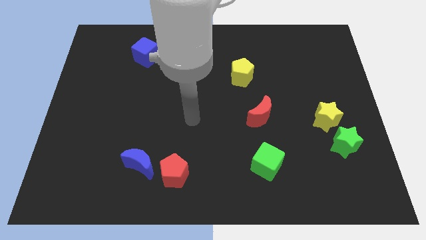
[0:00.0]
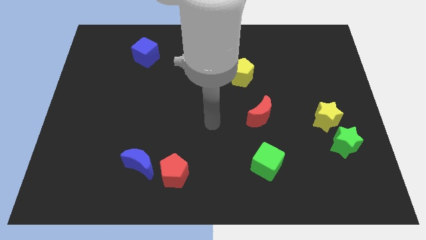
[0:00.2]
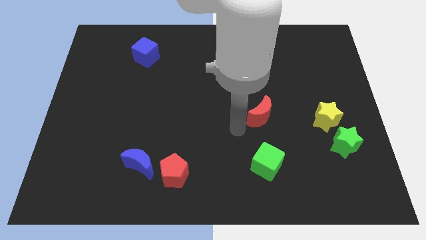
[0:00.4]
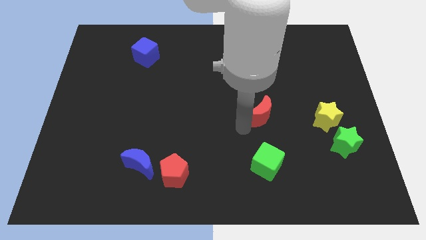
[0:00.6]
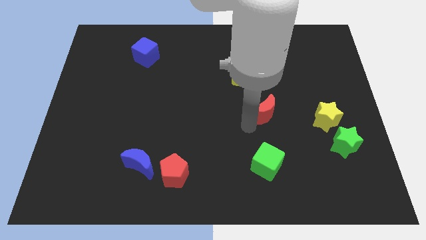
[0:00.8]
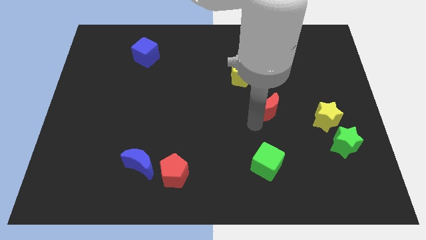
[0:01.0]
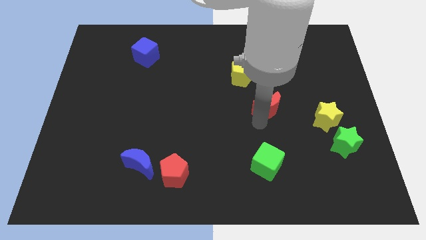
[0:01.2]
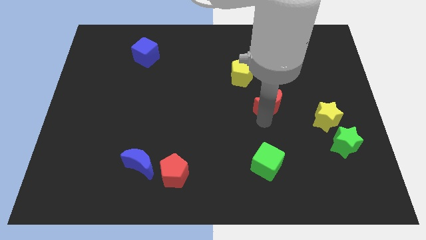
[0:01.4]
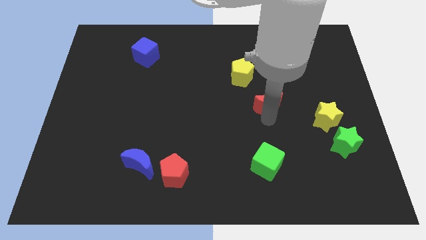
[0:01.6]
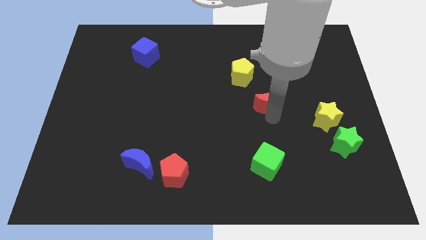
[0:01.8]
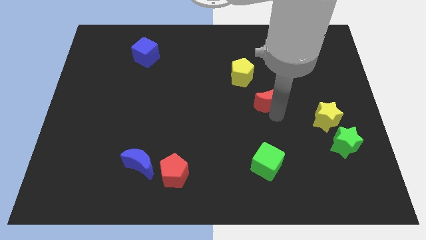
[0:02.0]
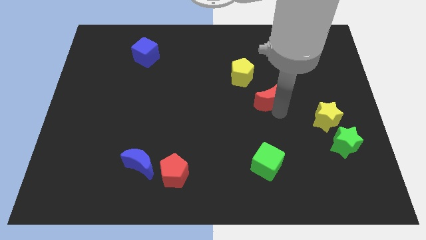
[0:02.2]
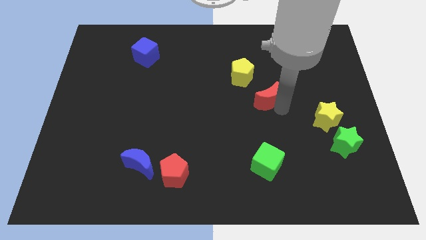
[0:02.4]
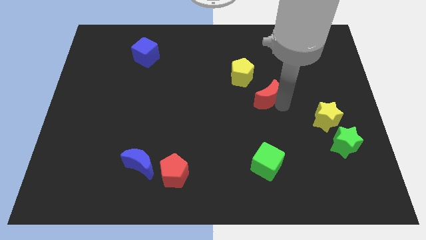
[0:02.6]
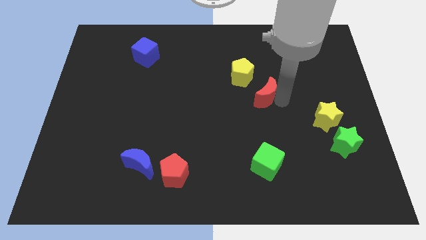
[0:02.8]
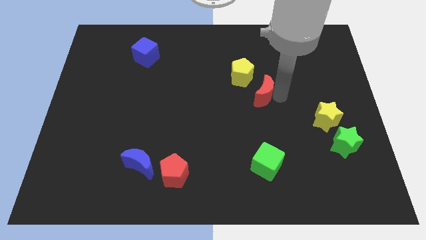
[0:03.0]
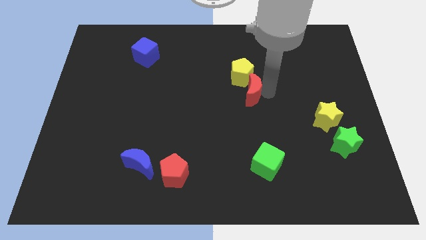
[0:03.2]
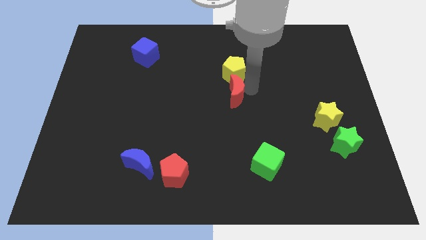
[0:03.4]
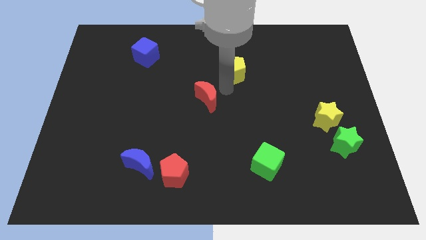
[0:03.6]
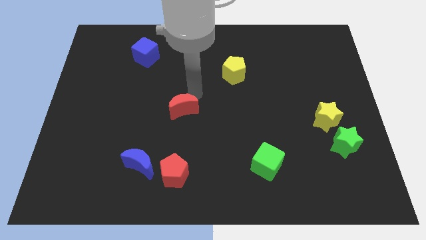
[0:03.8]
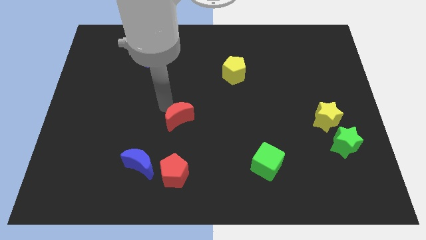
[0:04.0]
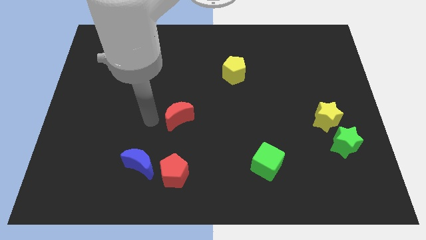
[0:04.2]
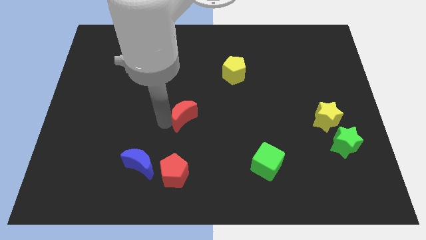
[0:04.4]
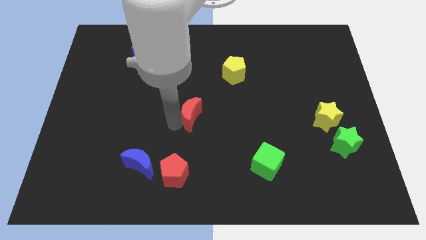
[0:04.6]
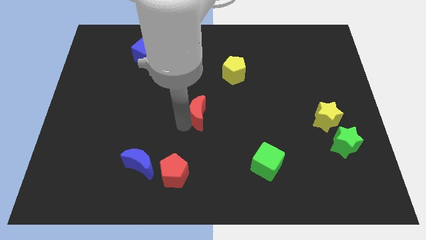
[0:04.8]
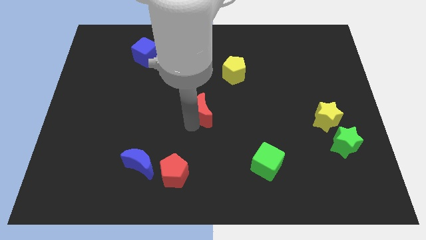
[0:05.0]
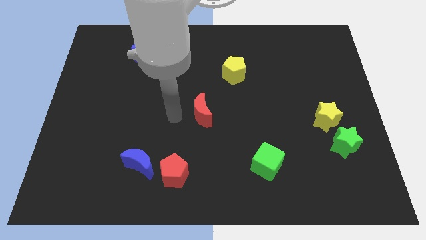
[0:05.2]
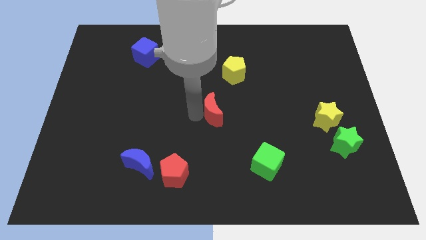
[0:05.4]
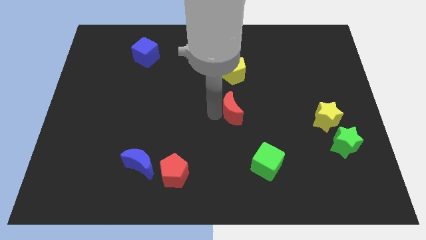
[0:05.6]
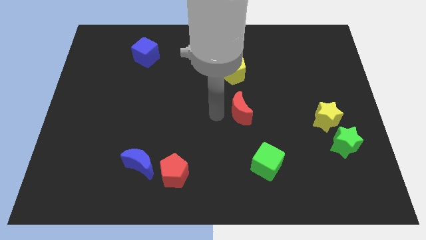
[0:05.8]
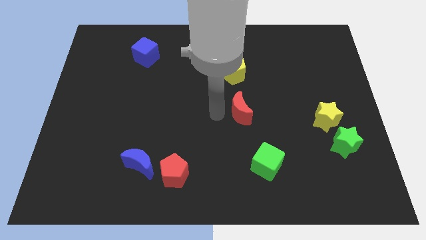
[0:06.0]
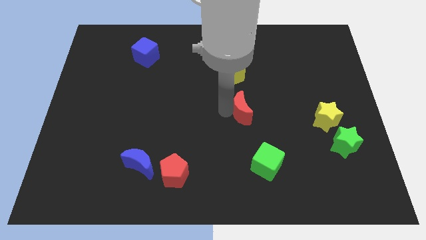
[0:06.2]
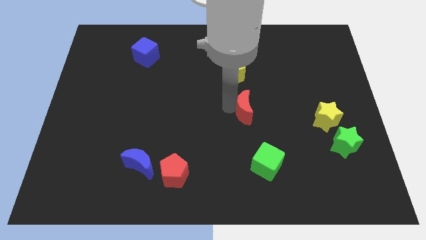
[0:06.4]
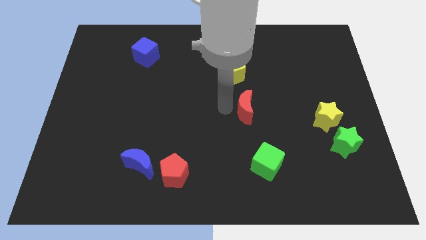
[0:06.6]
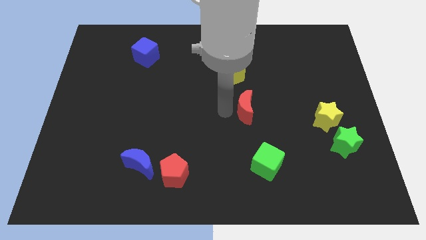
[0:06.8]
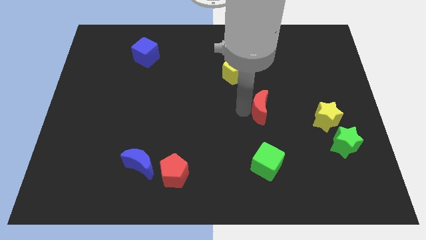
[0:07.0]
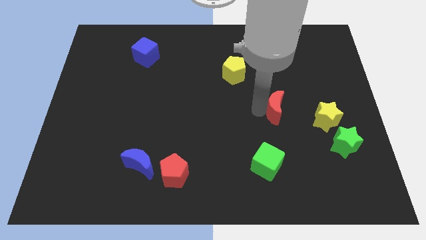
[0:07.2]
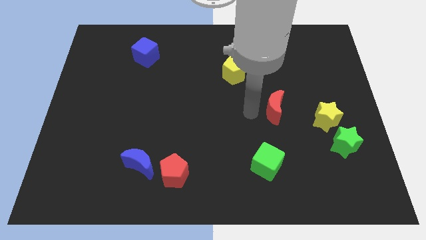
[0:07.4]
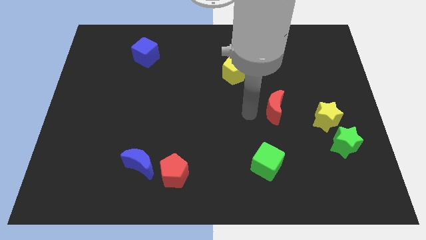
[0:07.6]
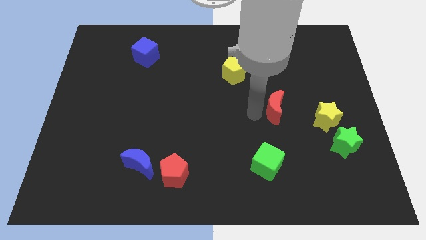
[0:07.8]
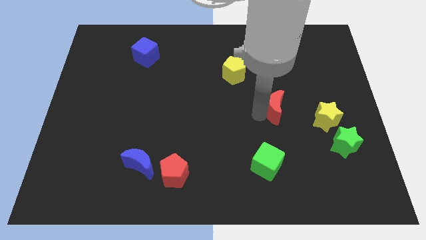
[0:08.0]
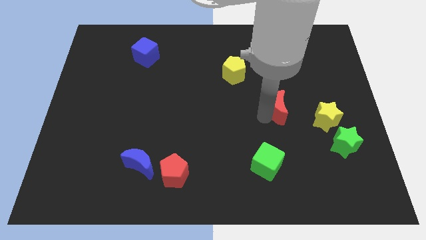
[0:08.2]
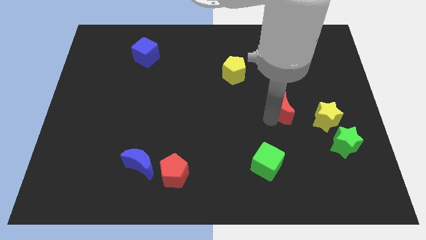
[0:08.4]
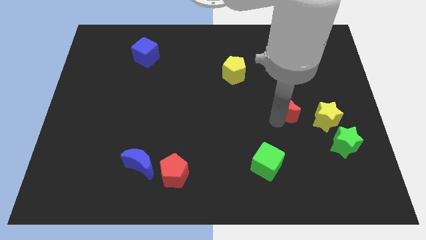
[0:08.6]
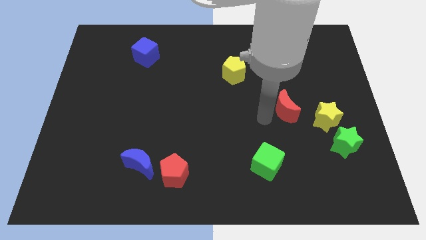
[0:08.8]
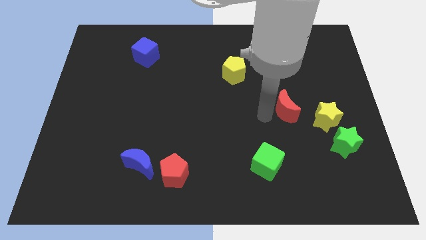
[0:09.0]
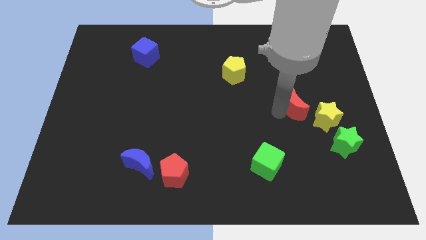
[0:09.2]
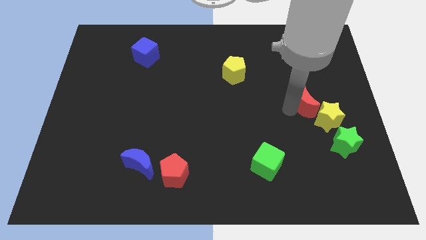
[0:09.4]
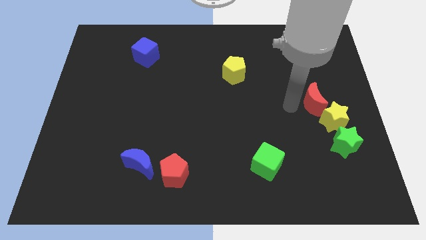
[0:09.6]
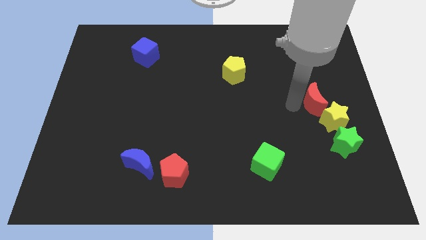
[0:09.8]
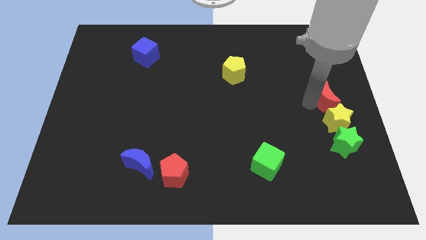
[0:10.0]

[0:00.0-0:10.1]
push the red moon to the right side

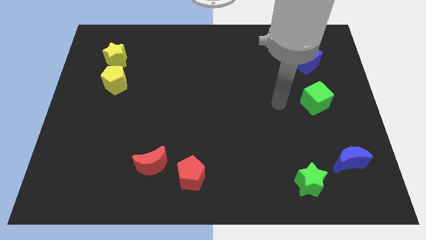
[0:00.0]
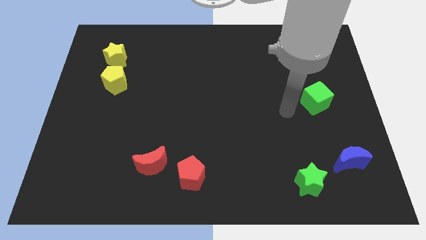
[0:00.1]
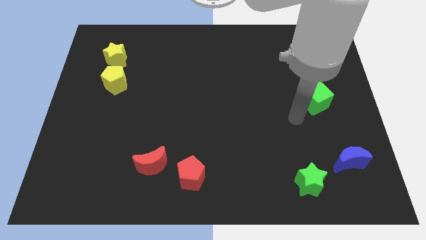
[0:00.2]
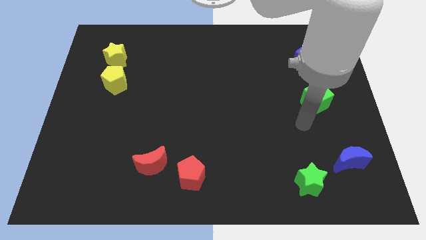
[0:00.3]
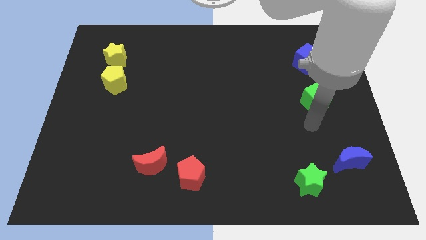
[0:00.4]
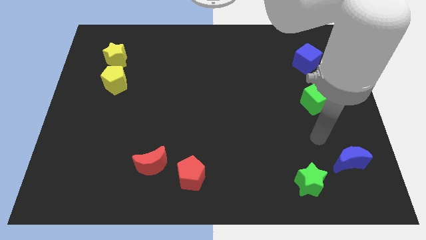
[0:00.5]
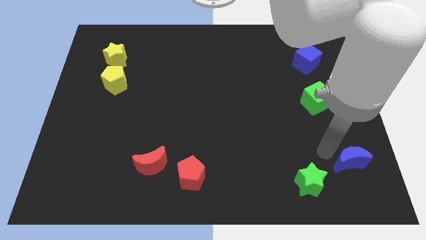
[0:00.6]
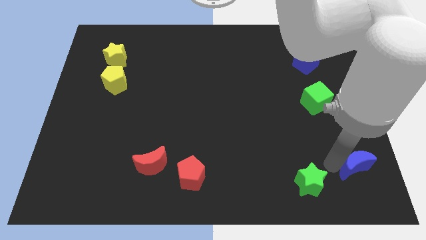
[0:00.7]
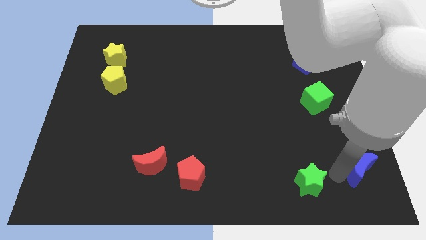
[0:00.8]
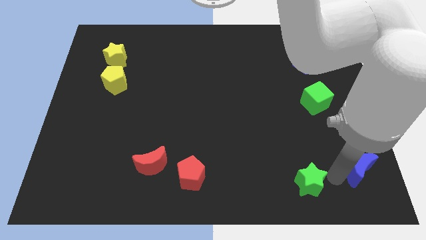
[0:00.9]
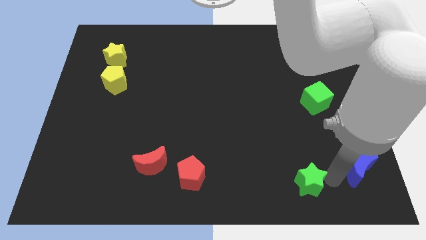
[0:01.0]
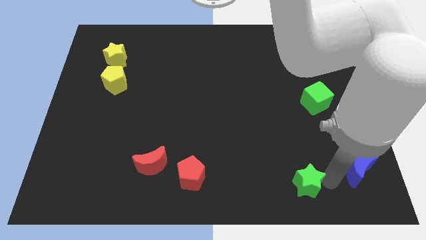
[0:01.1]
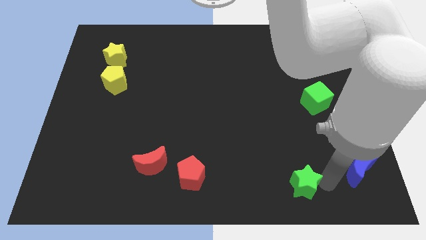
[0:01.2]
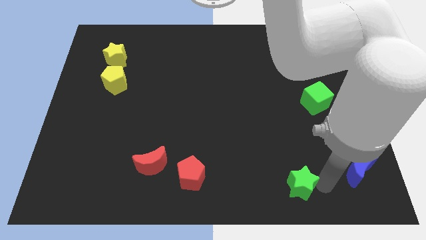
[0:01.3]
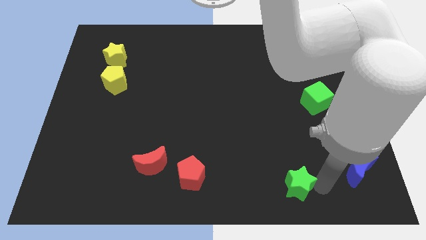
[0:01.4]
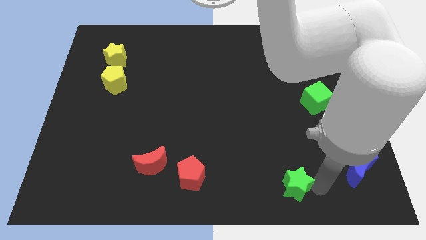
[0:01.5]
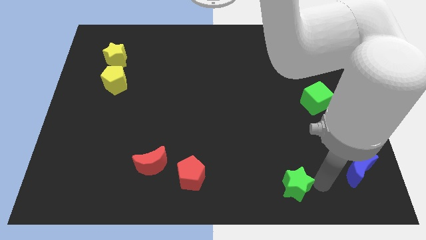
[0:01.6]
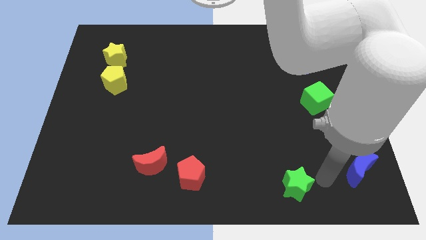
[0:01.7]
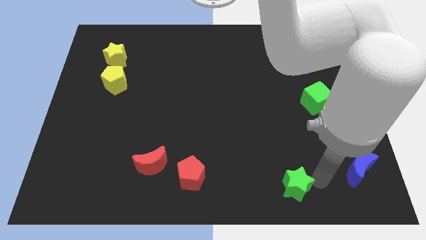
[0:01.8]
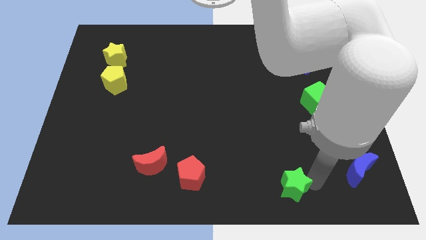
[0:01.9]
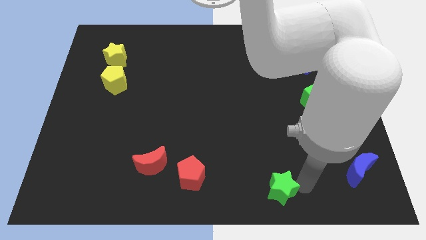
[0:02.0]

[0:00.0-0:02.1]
push the green star to the bottom
